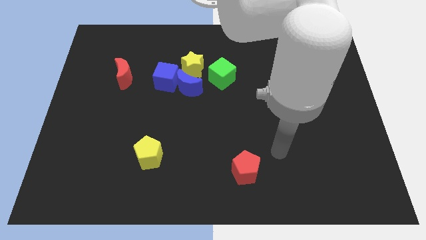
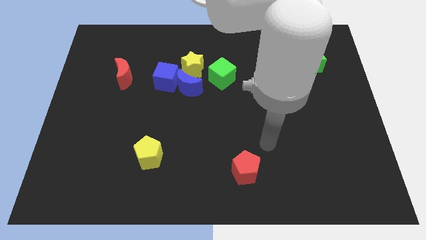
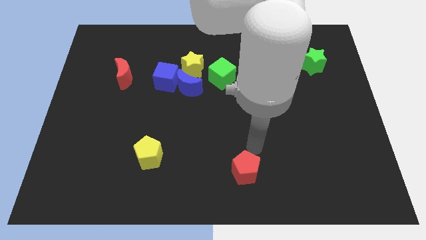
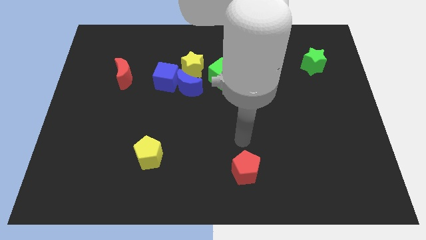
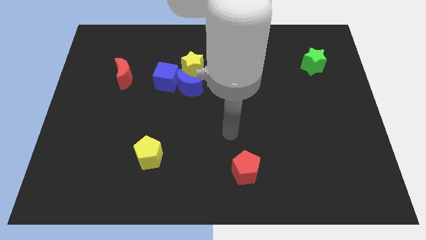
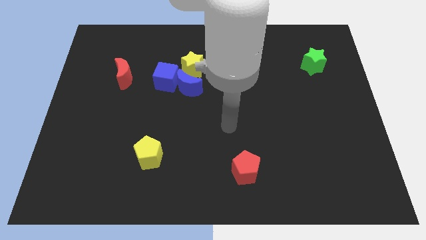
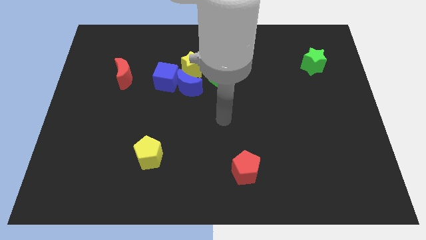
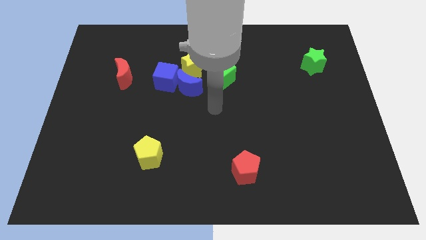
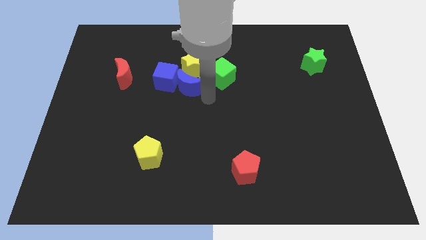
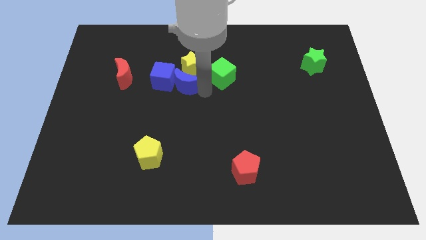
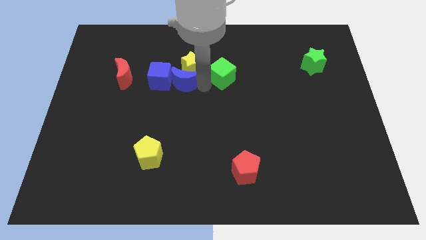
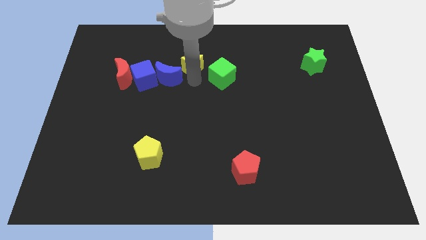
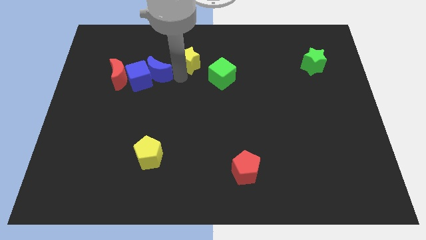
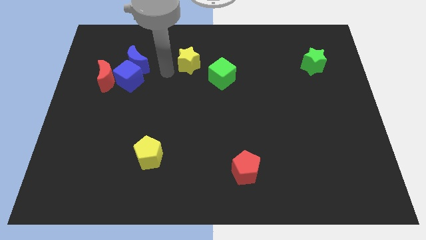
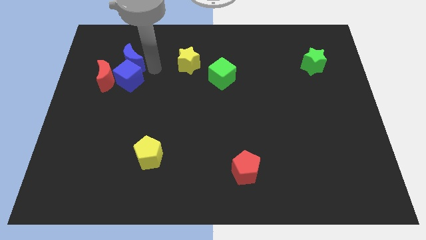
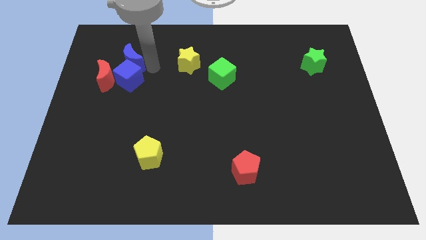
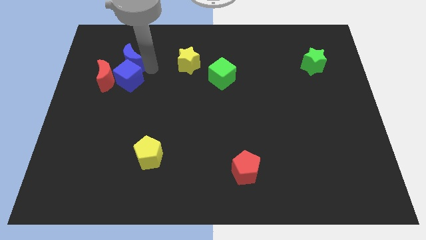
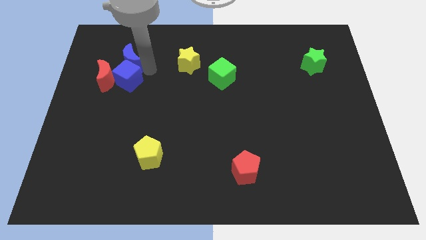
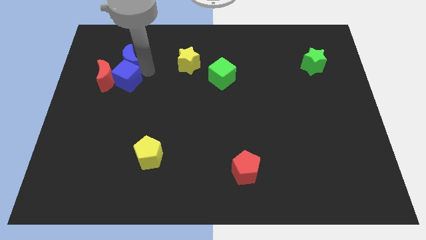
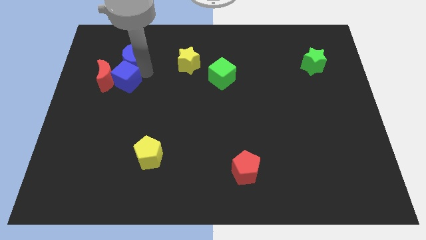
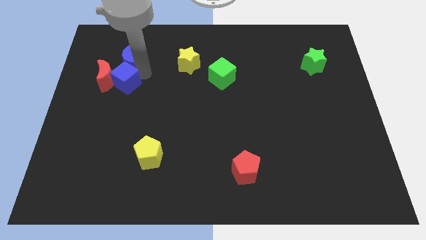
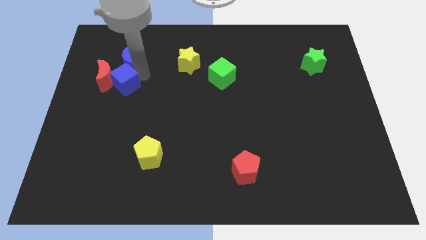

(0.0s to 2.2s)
pull the blue cube apart from the blue moon and yellow star

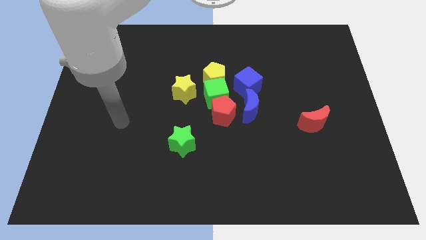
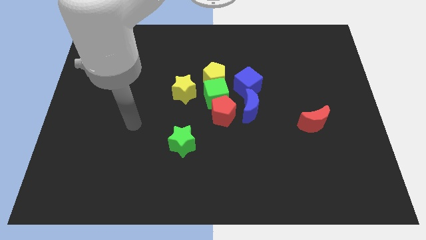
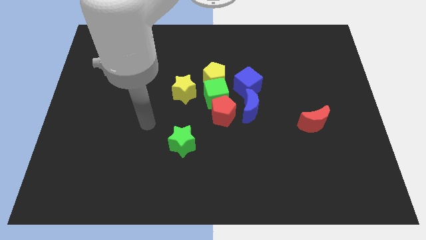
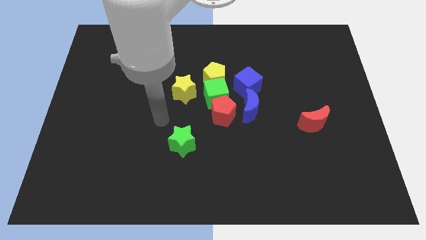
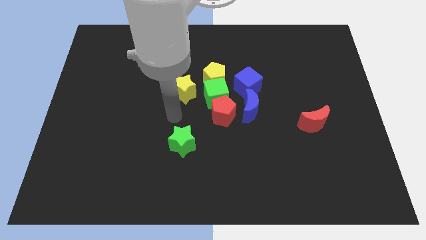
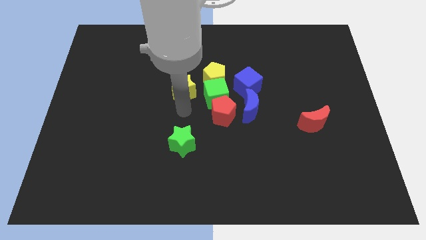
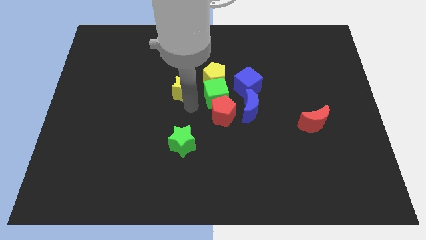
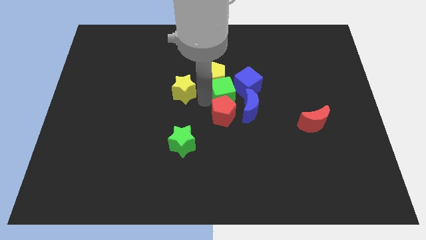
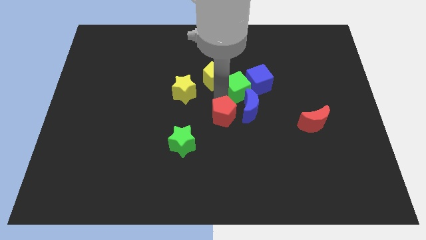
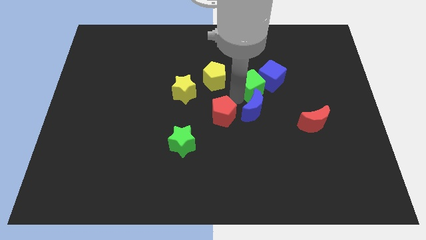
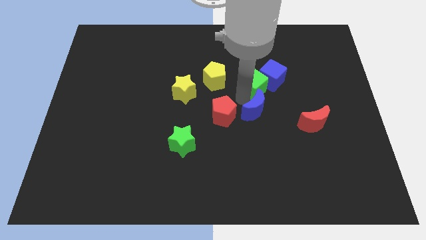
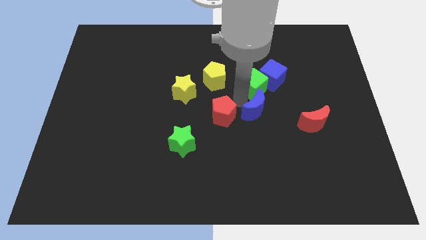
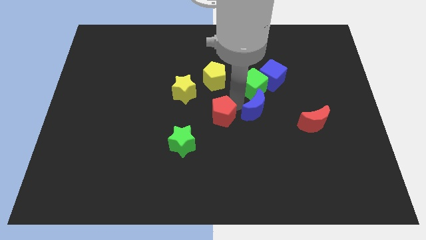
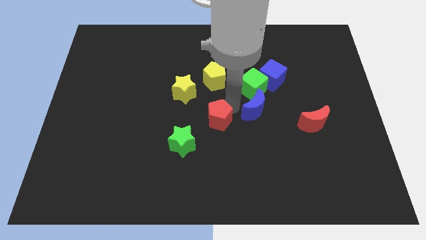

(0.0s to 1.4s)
separate the red pentagon from the green cube and blue moon

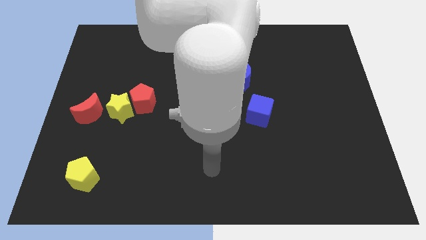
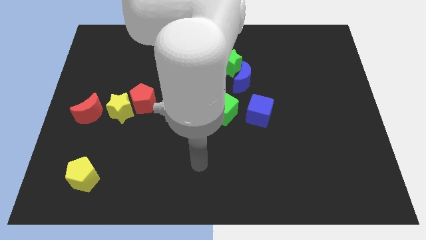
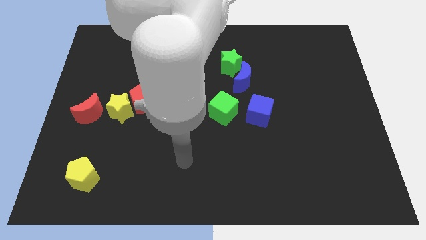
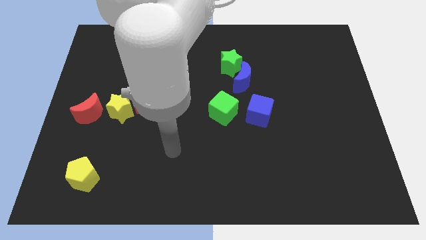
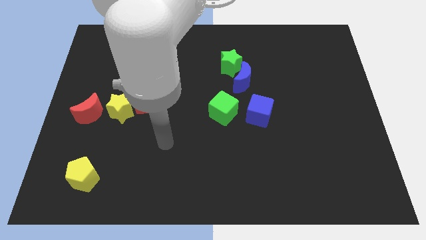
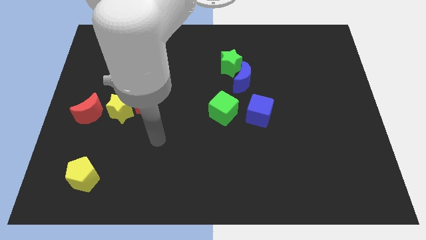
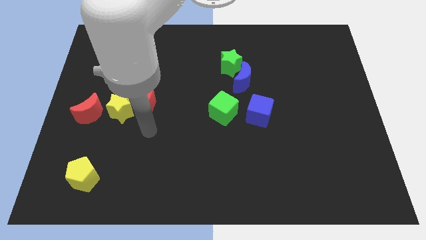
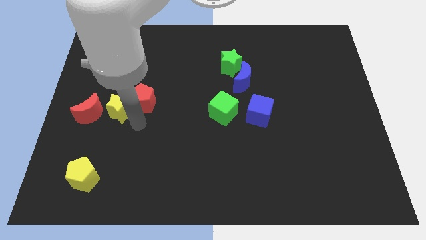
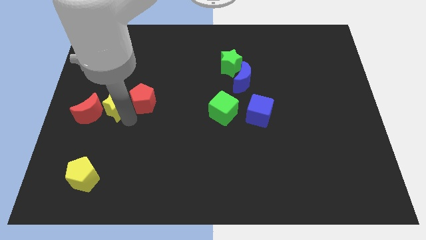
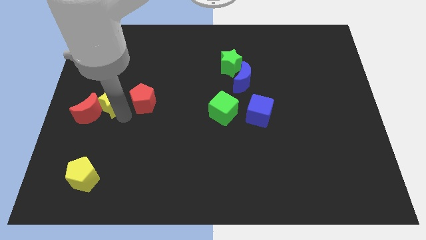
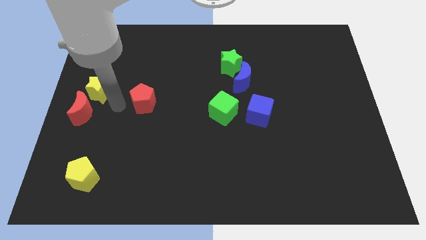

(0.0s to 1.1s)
move the red pentagon away from the yellow star

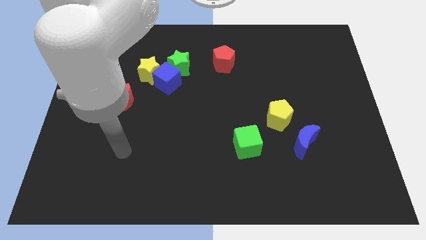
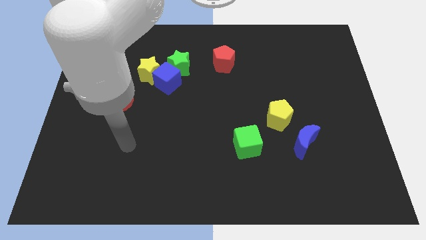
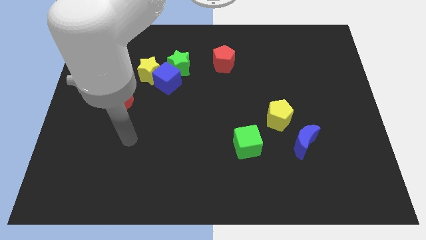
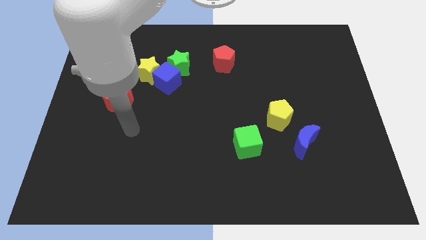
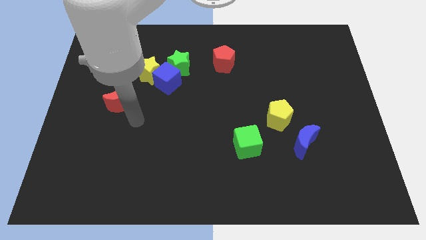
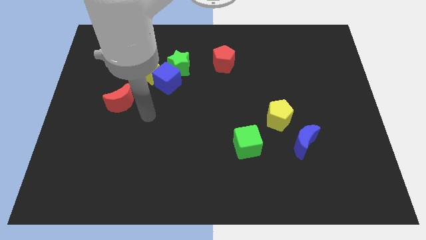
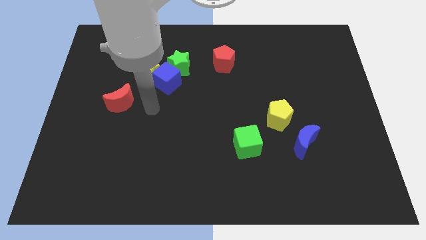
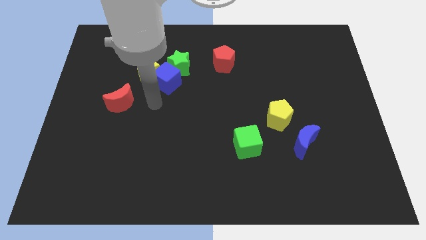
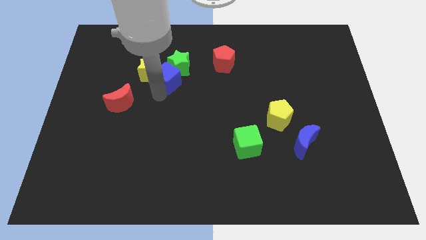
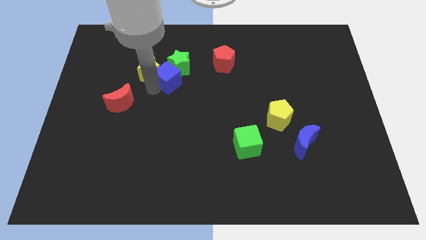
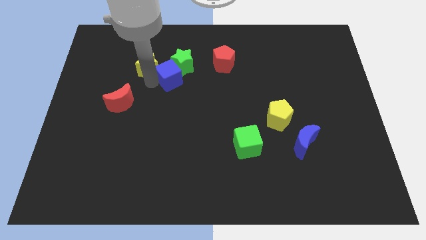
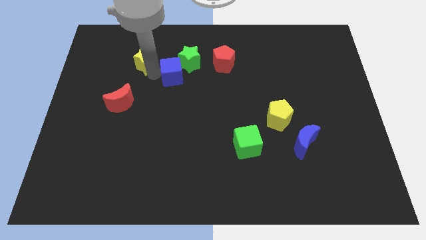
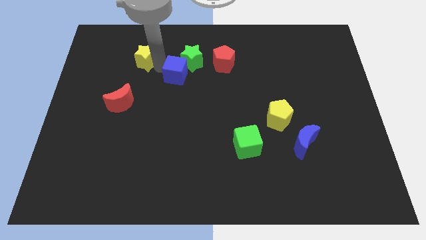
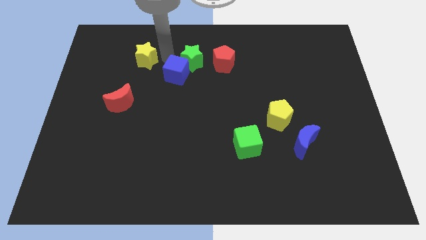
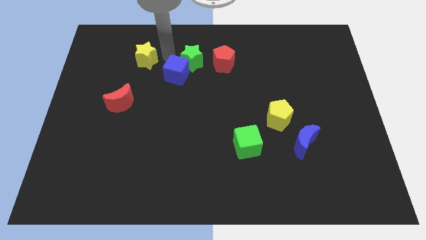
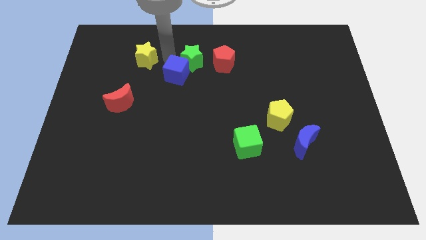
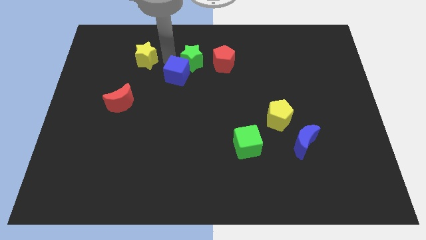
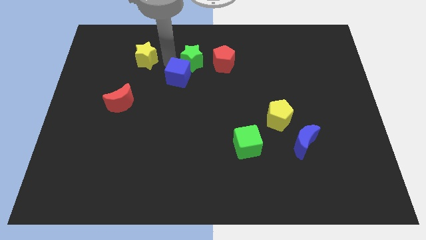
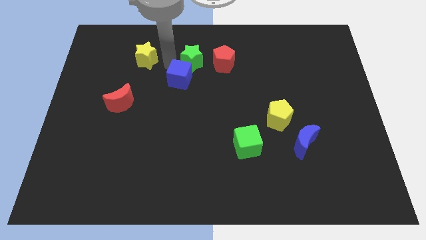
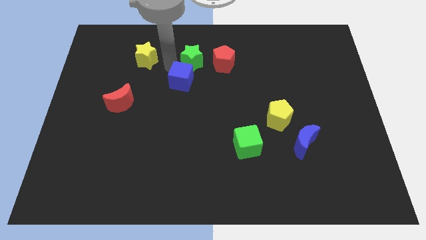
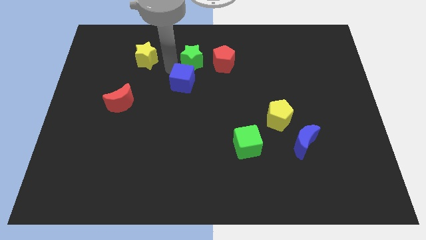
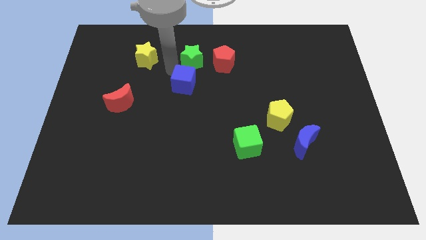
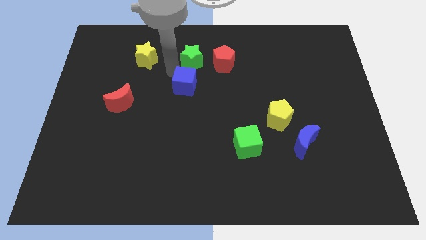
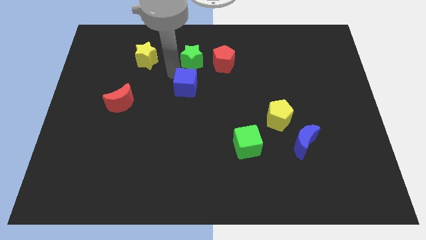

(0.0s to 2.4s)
pull the blue cube apart from the yellow star and green star

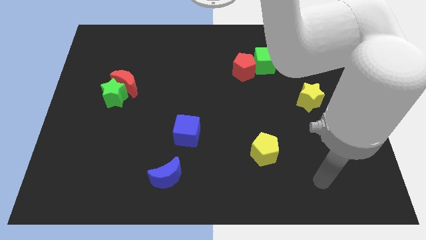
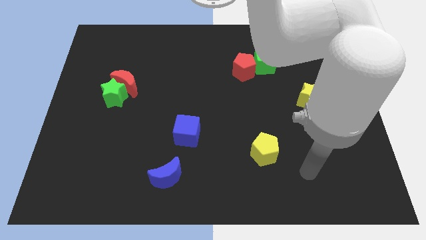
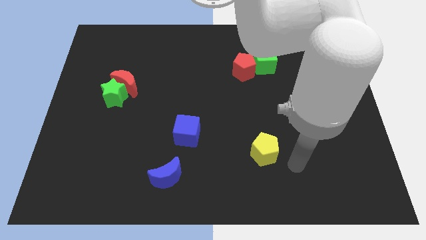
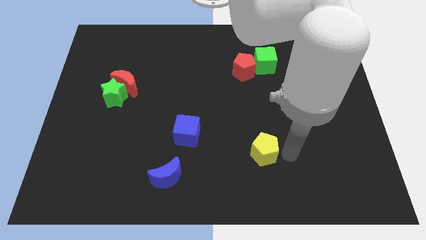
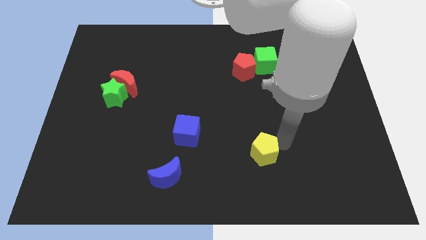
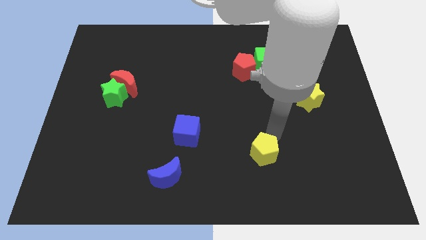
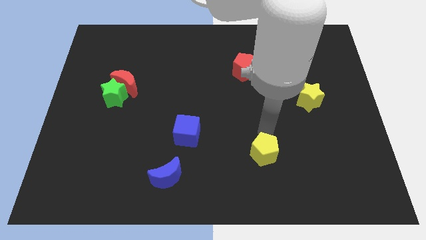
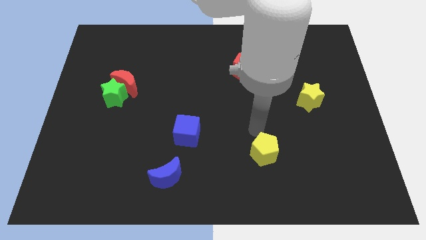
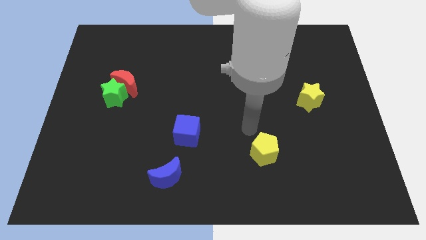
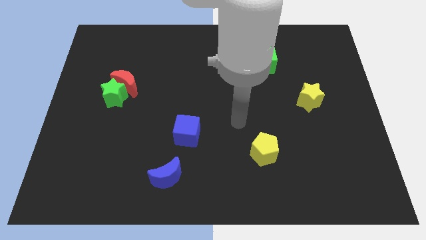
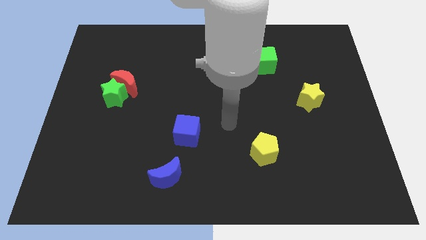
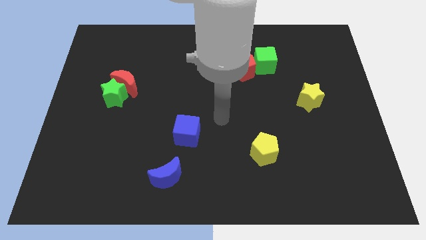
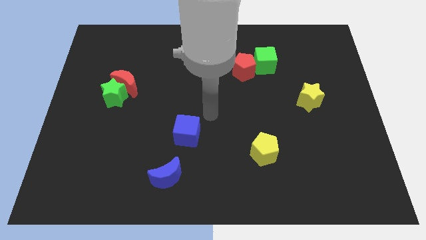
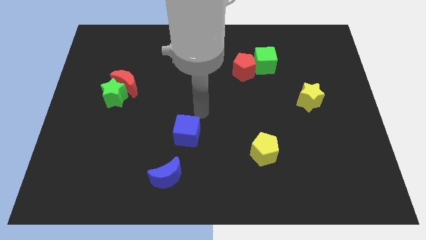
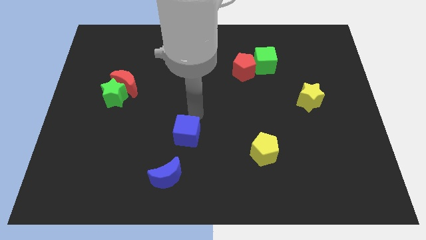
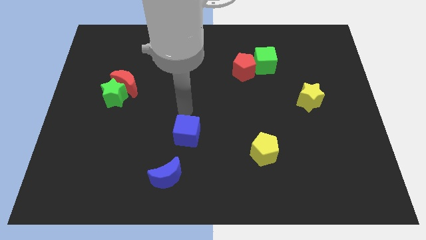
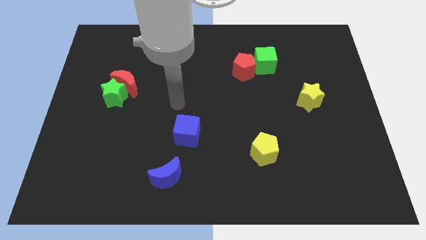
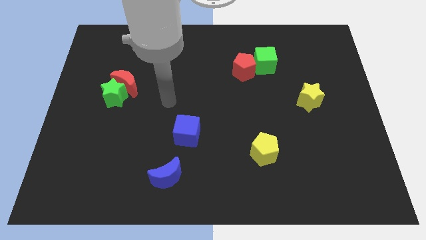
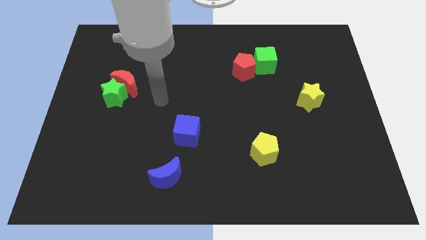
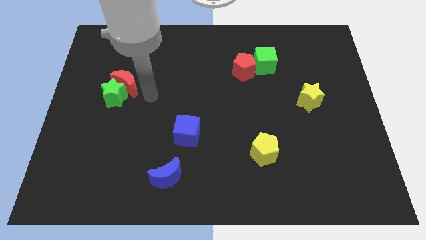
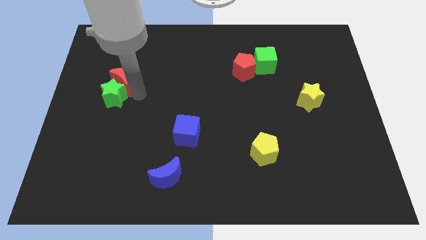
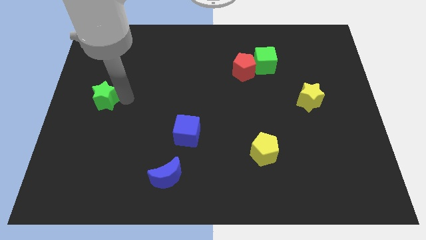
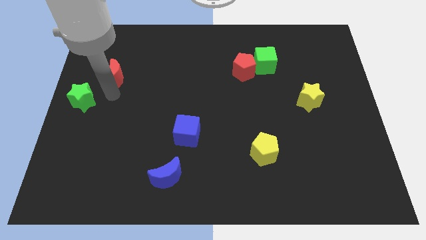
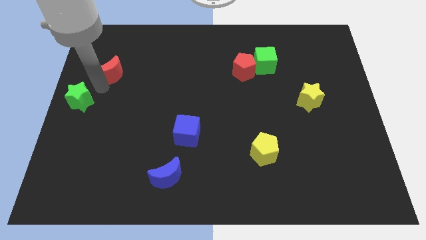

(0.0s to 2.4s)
pull the red moon apart from the green star
